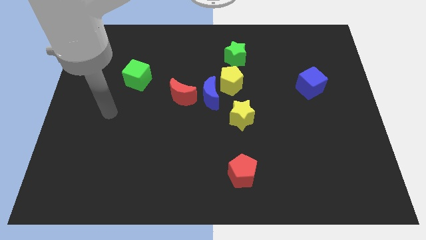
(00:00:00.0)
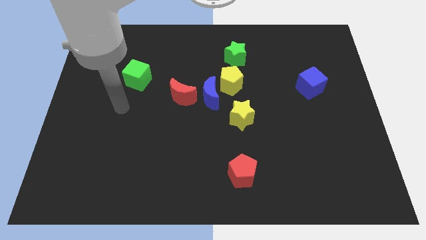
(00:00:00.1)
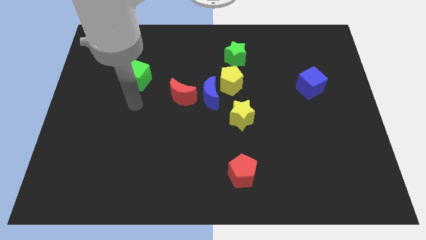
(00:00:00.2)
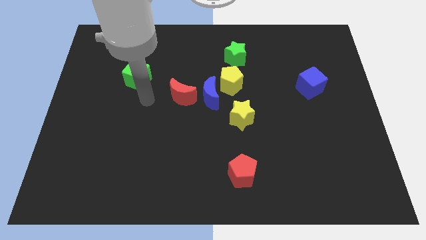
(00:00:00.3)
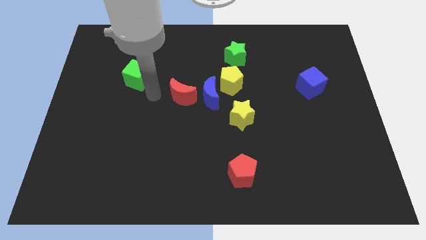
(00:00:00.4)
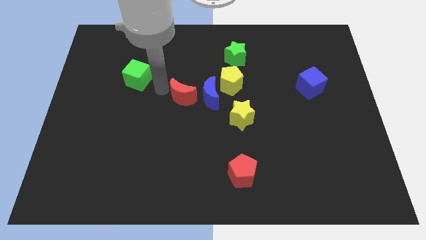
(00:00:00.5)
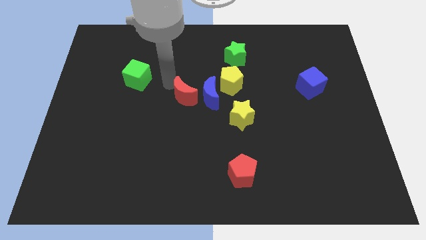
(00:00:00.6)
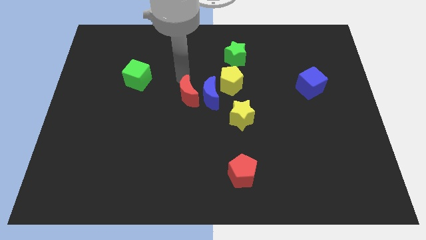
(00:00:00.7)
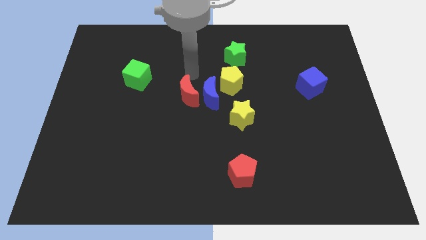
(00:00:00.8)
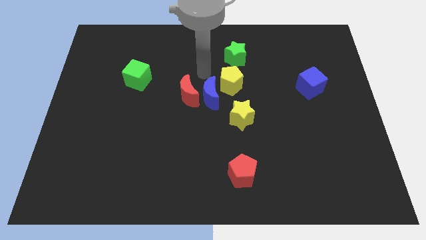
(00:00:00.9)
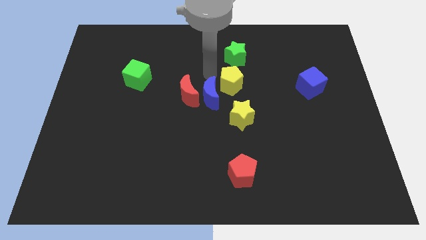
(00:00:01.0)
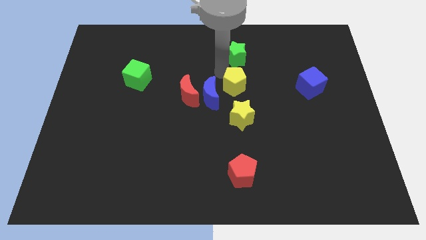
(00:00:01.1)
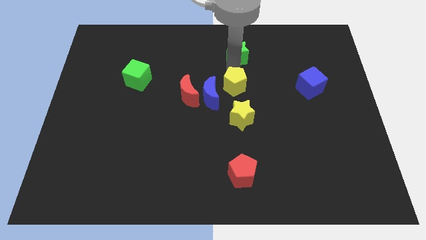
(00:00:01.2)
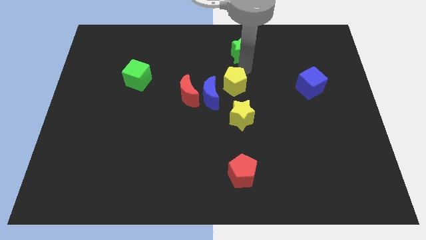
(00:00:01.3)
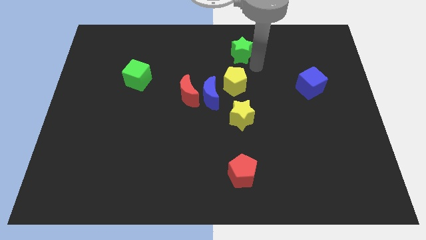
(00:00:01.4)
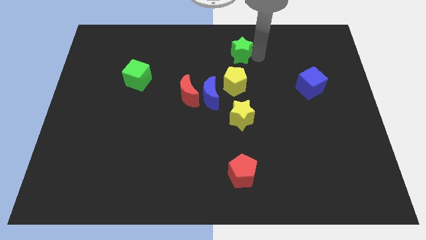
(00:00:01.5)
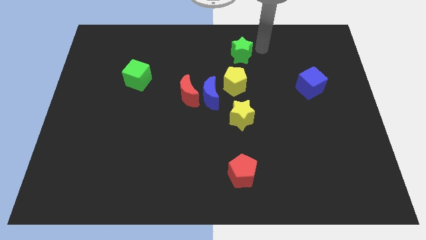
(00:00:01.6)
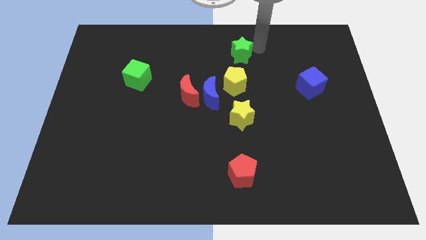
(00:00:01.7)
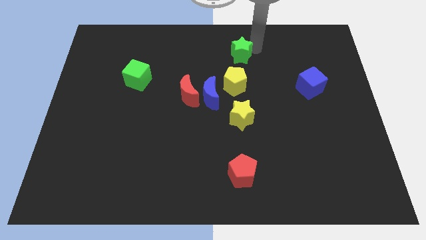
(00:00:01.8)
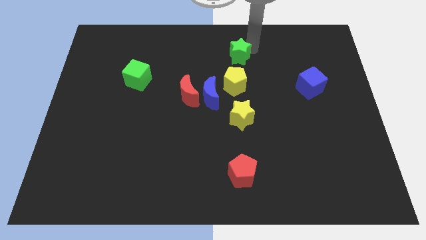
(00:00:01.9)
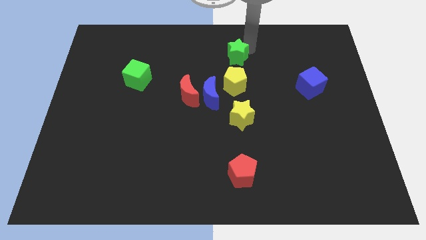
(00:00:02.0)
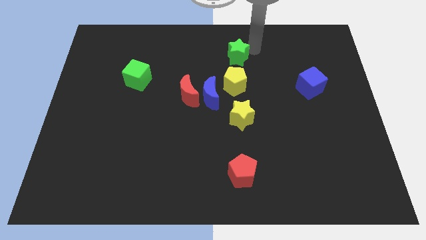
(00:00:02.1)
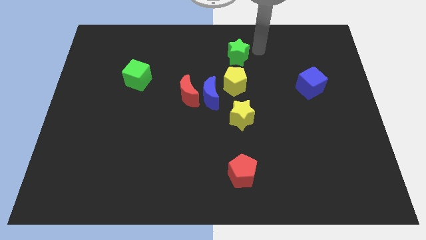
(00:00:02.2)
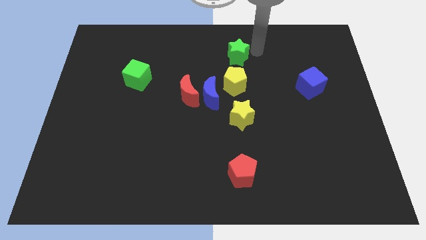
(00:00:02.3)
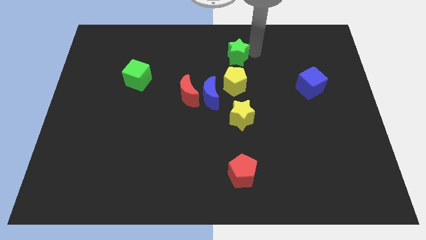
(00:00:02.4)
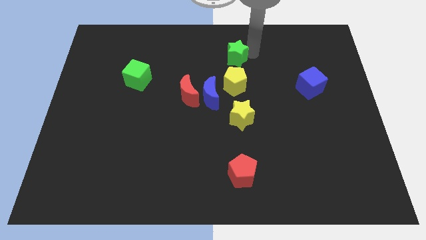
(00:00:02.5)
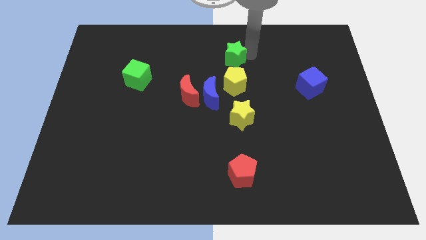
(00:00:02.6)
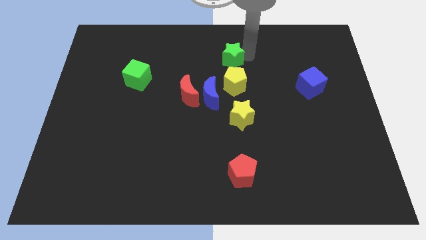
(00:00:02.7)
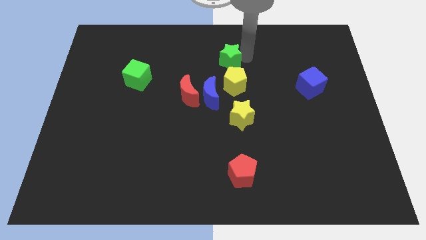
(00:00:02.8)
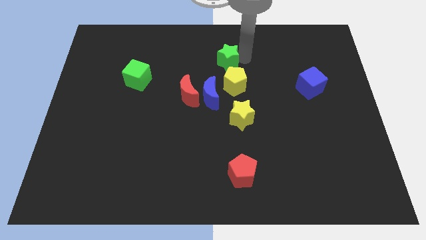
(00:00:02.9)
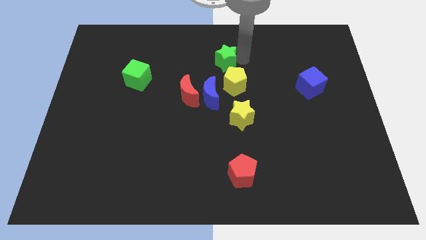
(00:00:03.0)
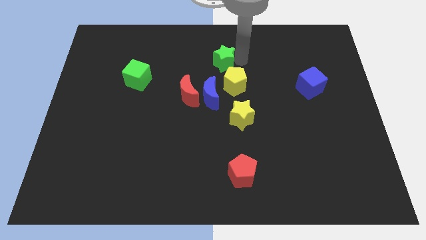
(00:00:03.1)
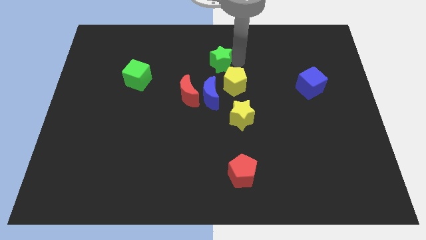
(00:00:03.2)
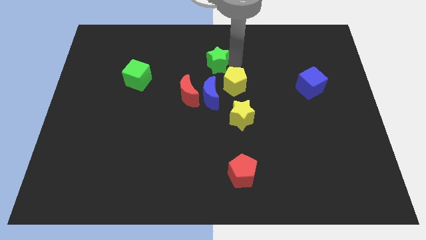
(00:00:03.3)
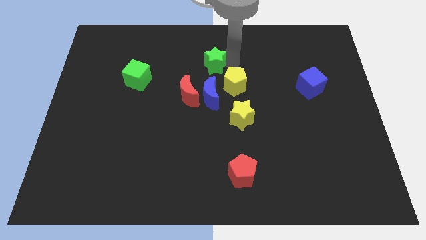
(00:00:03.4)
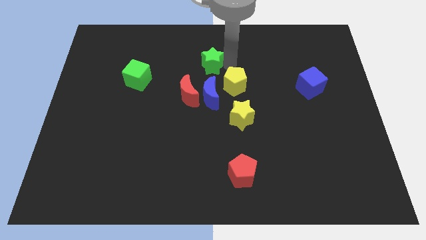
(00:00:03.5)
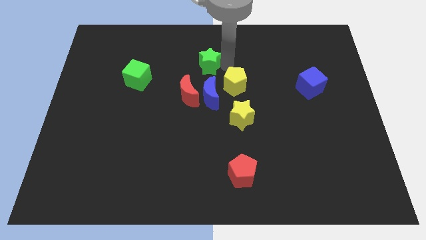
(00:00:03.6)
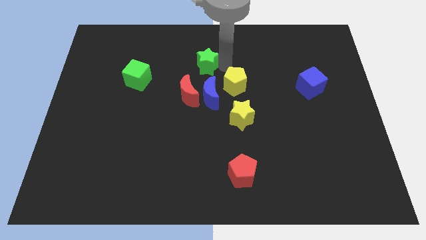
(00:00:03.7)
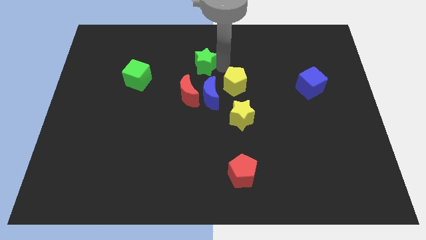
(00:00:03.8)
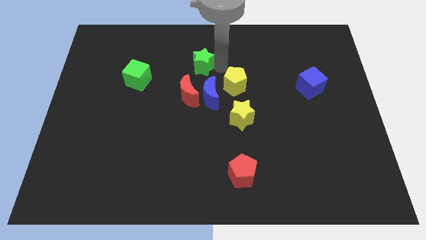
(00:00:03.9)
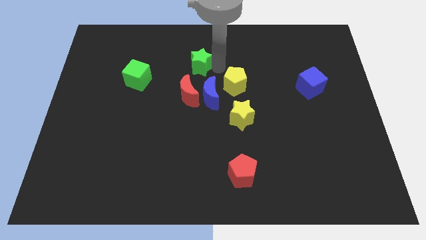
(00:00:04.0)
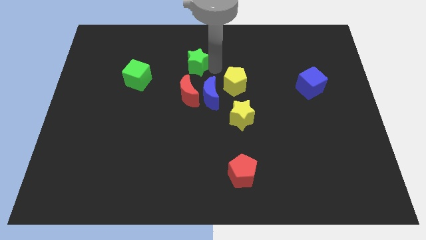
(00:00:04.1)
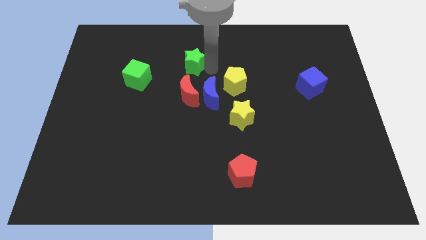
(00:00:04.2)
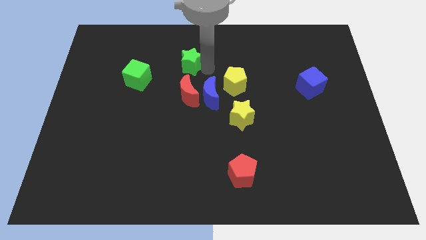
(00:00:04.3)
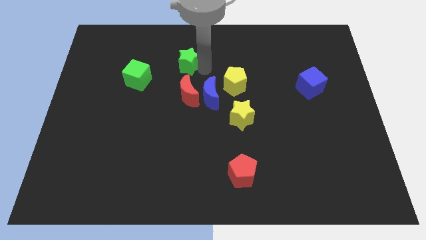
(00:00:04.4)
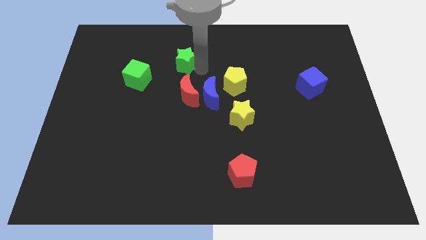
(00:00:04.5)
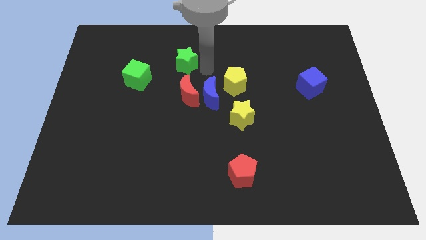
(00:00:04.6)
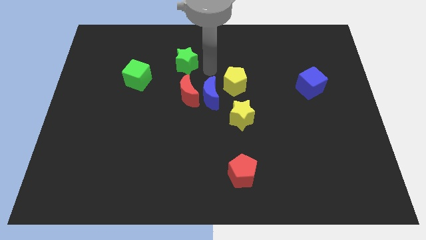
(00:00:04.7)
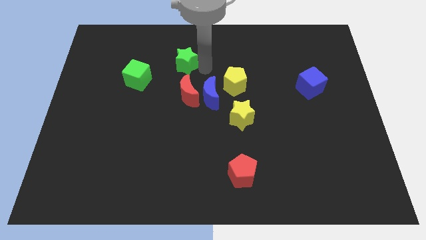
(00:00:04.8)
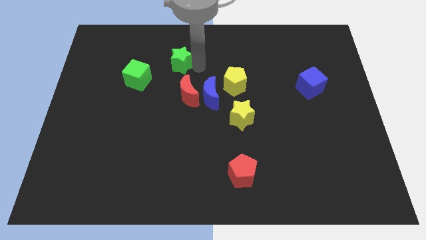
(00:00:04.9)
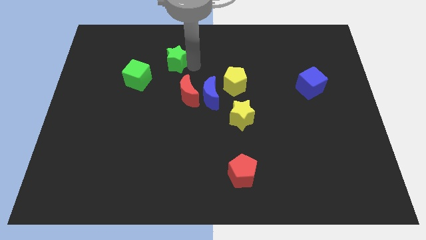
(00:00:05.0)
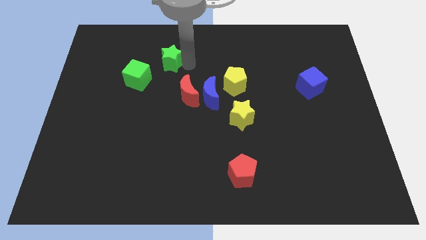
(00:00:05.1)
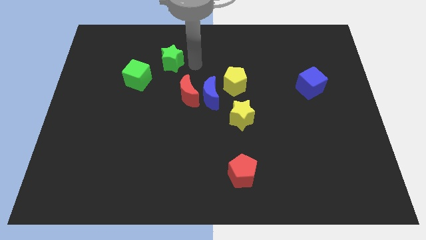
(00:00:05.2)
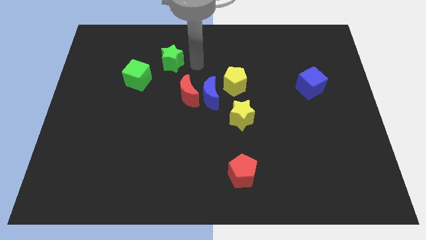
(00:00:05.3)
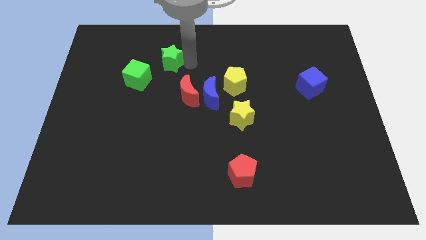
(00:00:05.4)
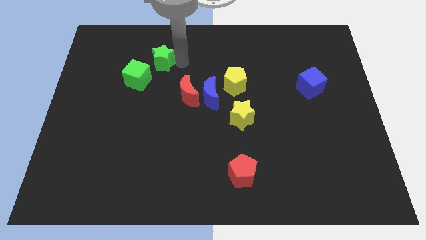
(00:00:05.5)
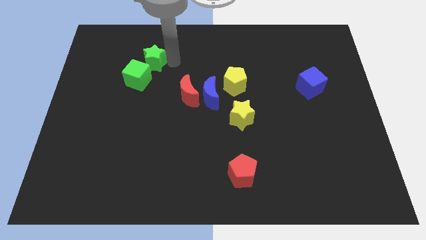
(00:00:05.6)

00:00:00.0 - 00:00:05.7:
slide the green star left

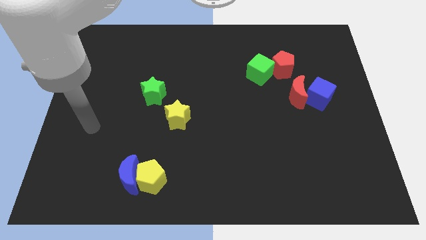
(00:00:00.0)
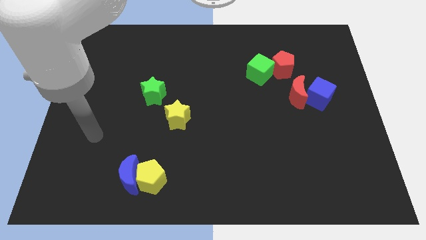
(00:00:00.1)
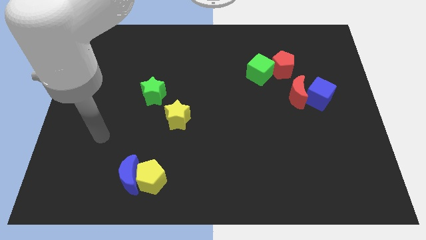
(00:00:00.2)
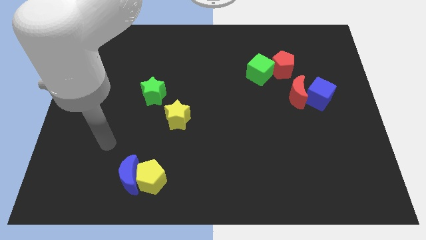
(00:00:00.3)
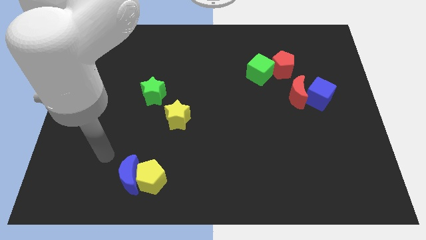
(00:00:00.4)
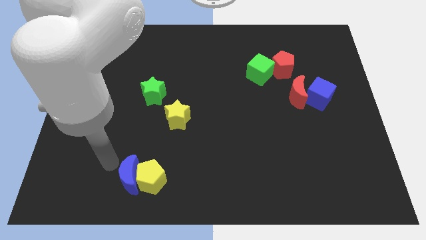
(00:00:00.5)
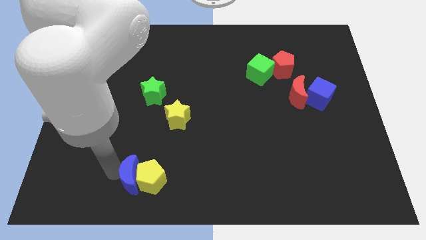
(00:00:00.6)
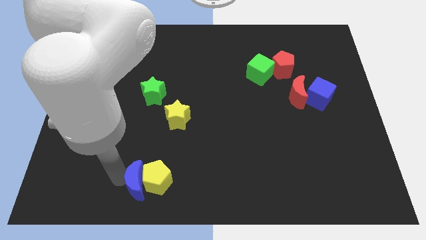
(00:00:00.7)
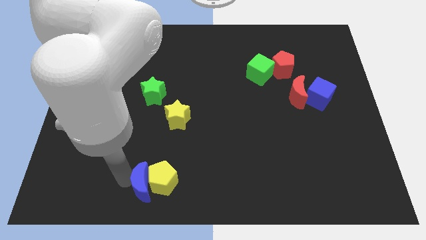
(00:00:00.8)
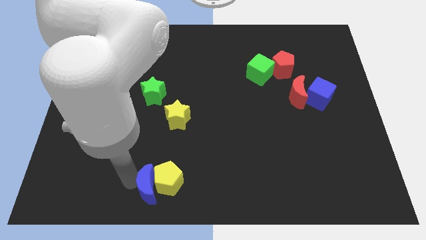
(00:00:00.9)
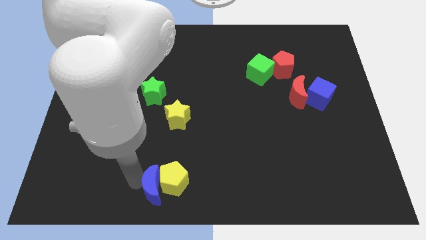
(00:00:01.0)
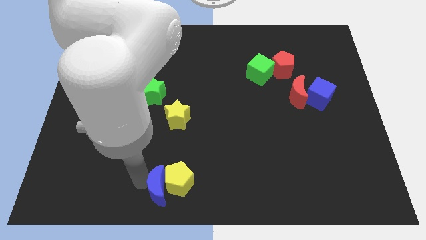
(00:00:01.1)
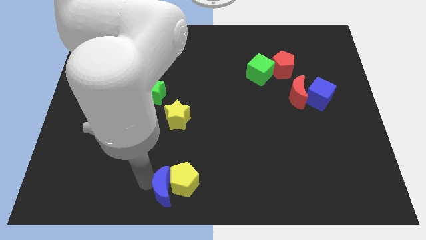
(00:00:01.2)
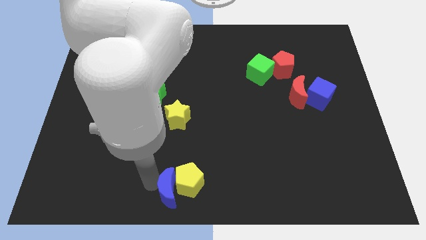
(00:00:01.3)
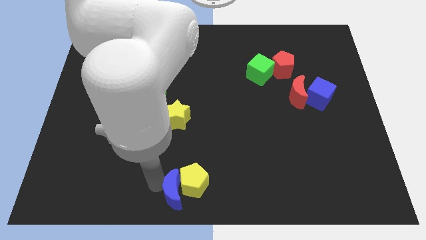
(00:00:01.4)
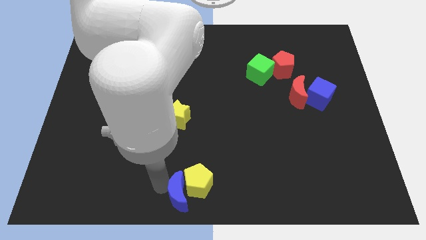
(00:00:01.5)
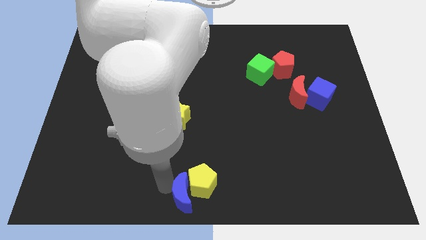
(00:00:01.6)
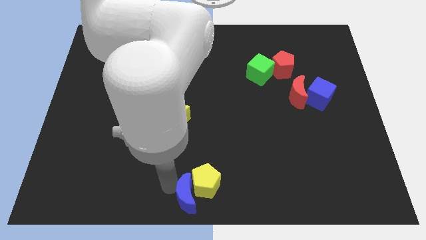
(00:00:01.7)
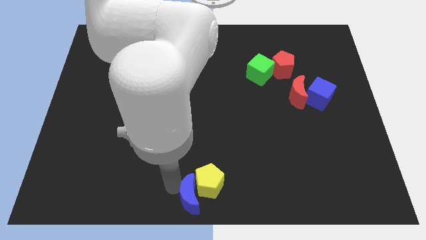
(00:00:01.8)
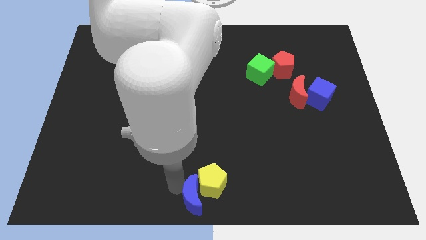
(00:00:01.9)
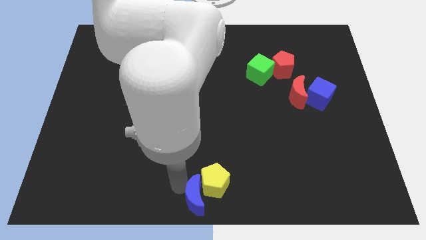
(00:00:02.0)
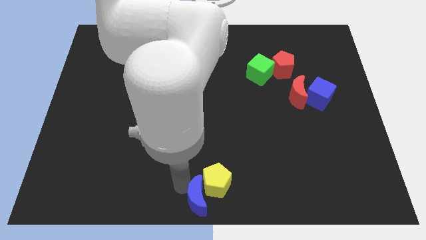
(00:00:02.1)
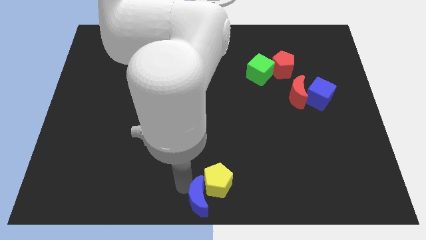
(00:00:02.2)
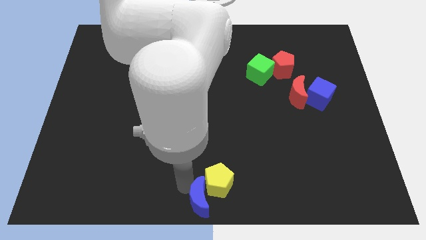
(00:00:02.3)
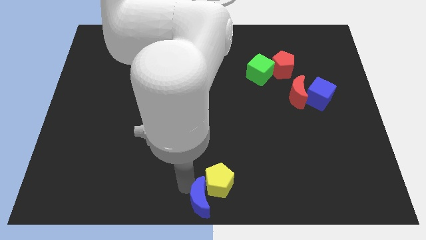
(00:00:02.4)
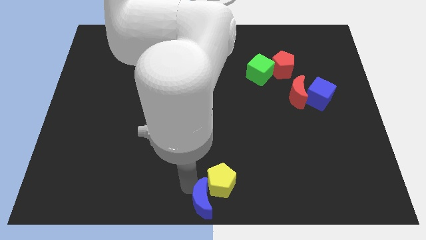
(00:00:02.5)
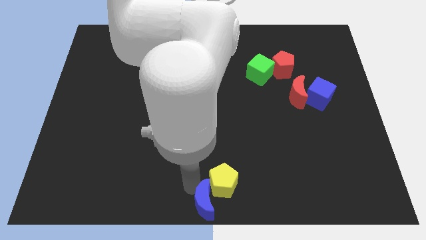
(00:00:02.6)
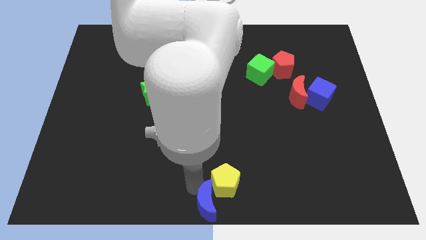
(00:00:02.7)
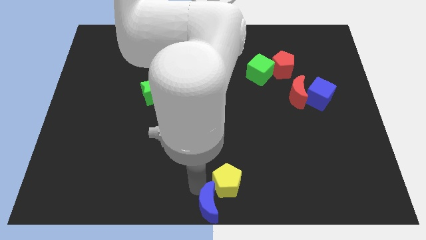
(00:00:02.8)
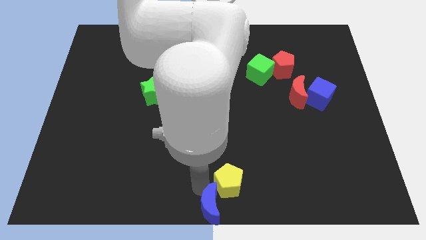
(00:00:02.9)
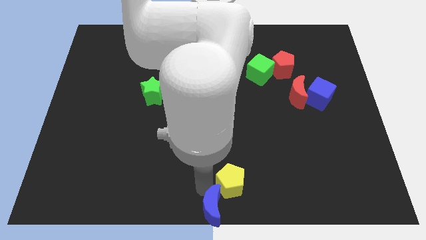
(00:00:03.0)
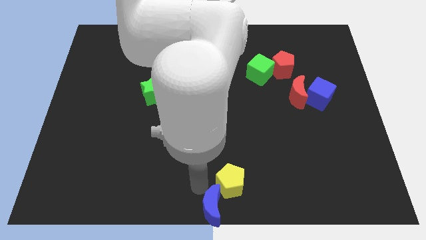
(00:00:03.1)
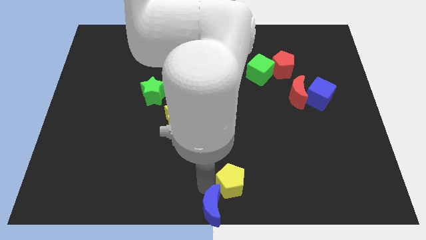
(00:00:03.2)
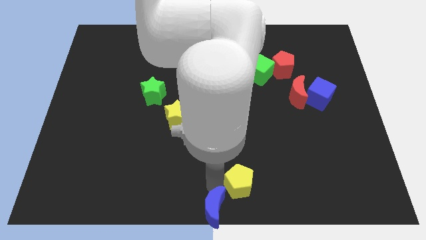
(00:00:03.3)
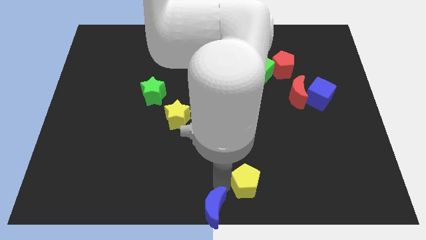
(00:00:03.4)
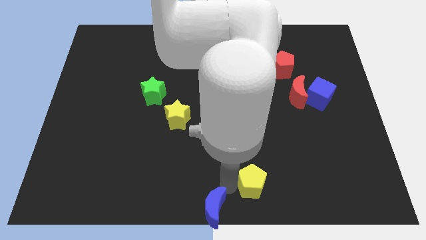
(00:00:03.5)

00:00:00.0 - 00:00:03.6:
push the yellow pentagon right
